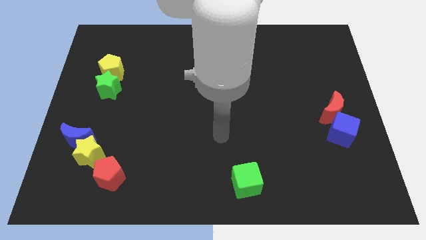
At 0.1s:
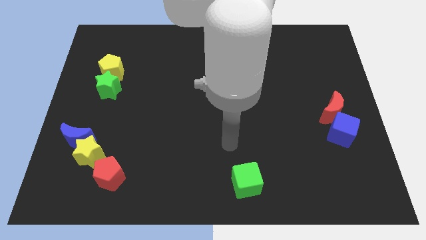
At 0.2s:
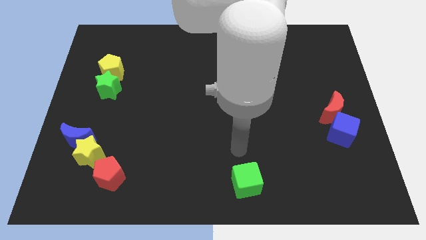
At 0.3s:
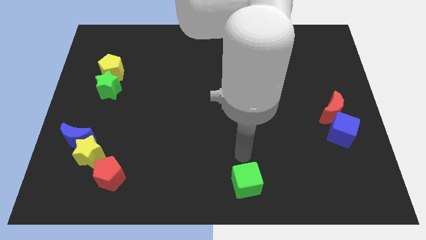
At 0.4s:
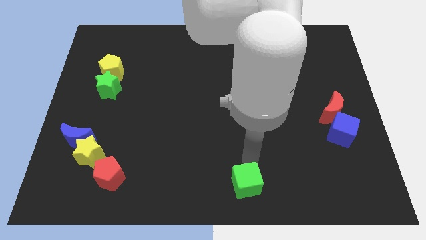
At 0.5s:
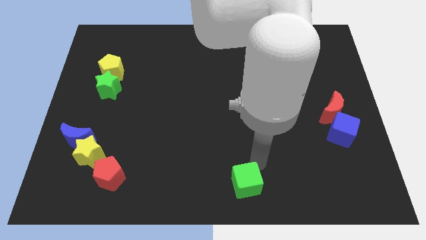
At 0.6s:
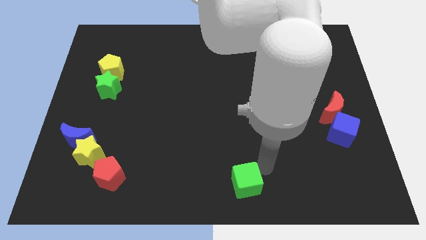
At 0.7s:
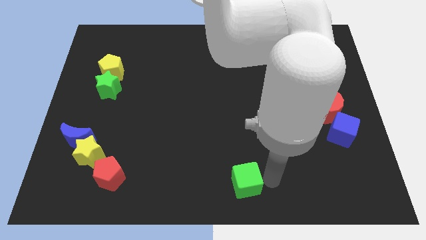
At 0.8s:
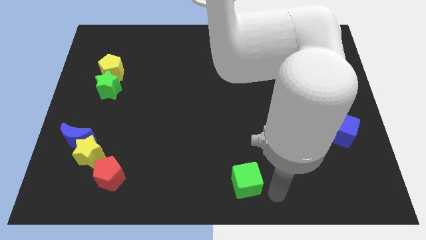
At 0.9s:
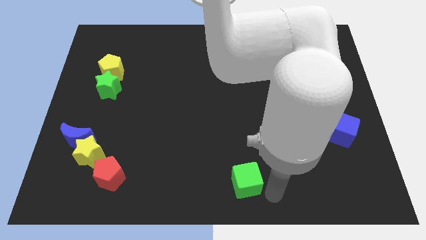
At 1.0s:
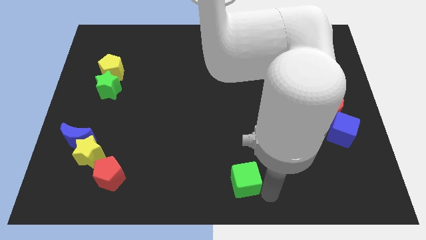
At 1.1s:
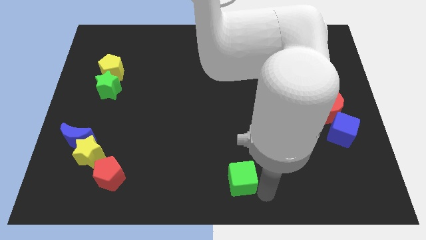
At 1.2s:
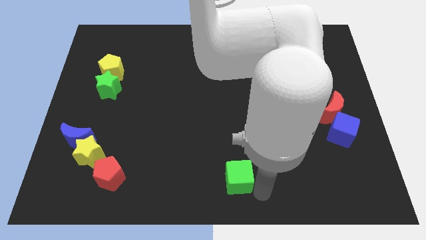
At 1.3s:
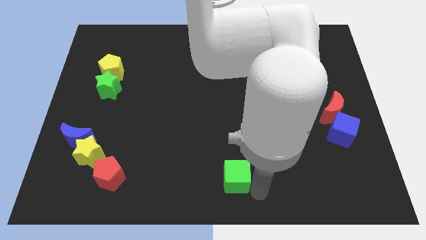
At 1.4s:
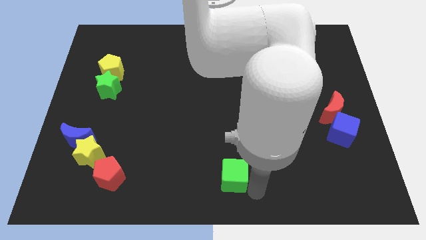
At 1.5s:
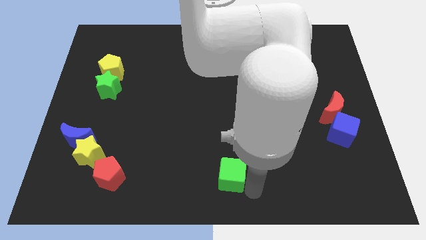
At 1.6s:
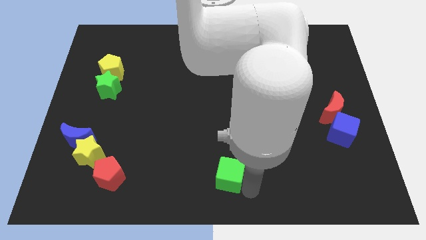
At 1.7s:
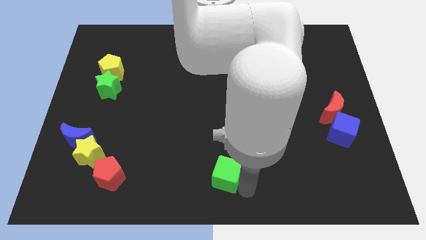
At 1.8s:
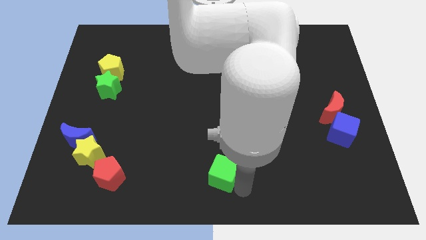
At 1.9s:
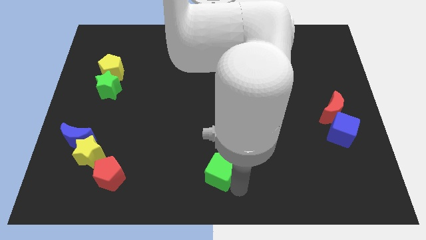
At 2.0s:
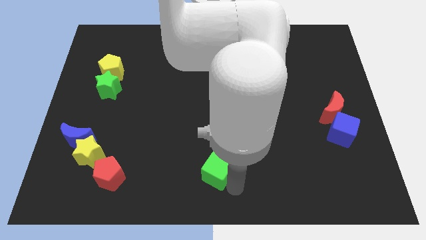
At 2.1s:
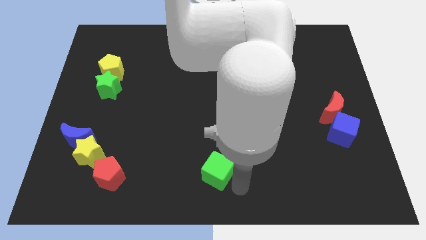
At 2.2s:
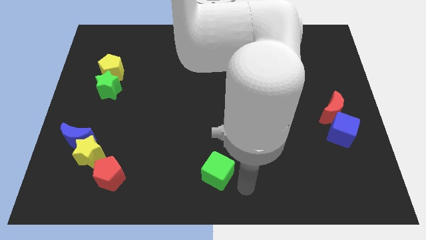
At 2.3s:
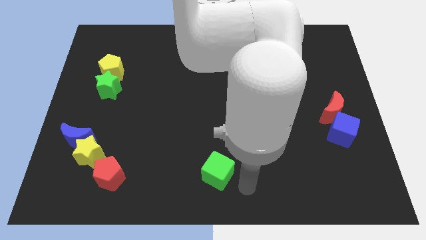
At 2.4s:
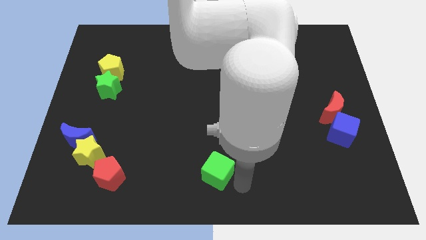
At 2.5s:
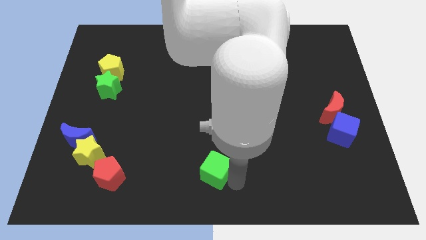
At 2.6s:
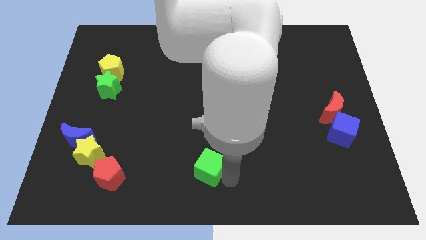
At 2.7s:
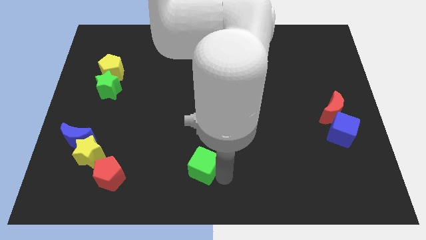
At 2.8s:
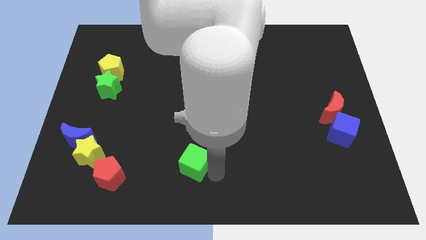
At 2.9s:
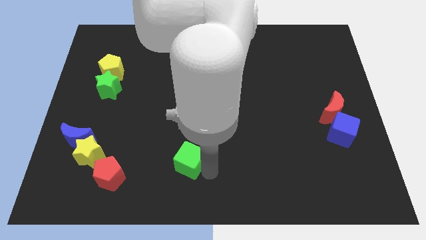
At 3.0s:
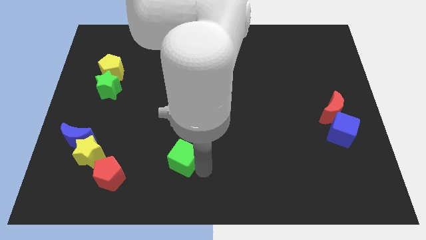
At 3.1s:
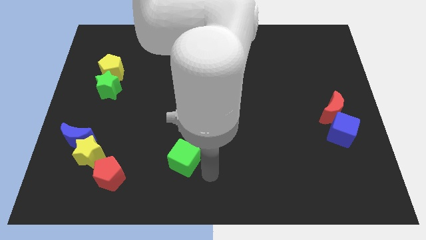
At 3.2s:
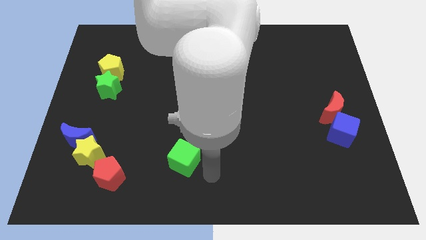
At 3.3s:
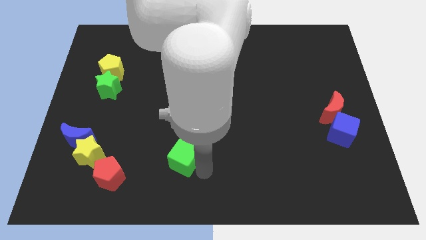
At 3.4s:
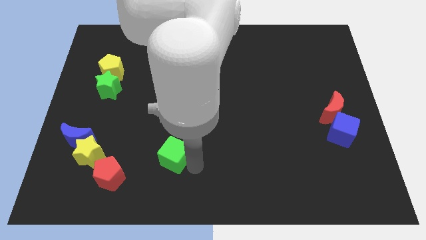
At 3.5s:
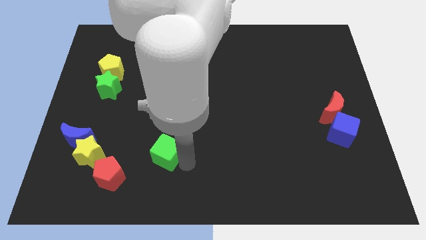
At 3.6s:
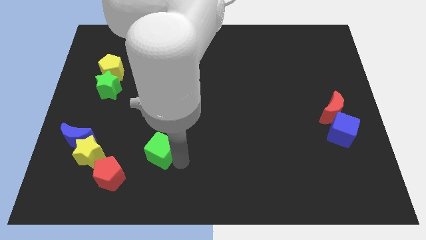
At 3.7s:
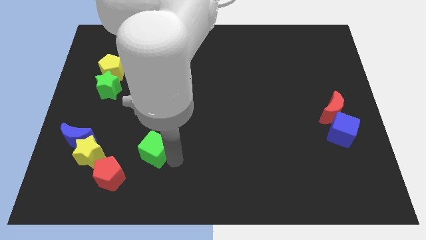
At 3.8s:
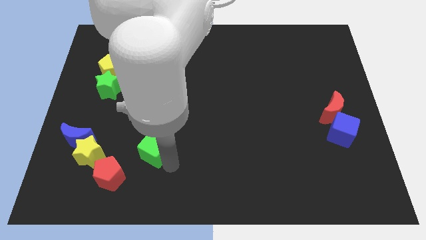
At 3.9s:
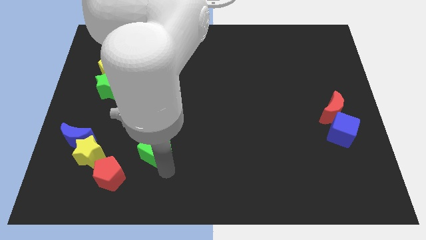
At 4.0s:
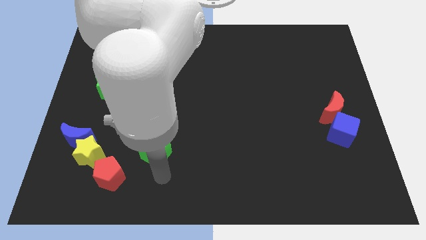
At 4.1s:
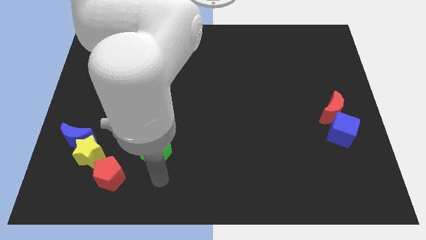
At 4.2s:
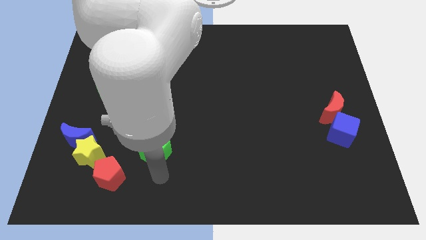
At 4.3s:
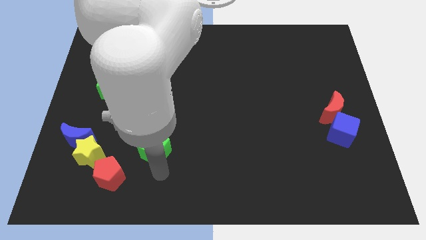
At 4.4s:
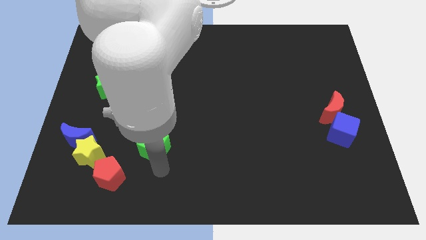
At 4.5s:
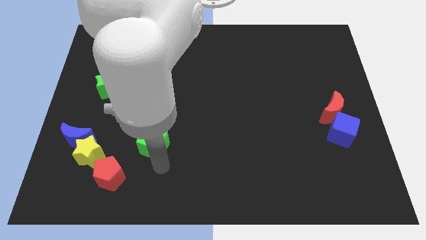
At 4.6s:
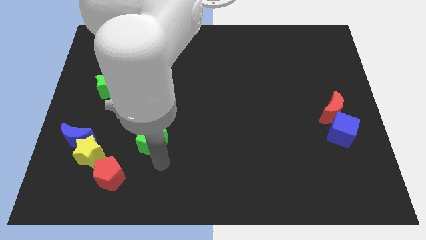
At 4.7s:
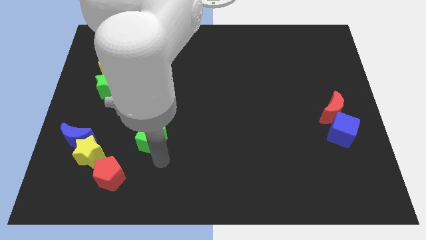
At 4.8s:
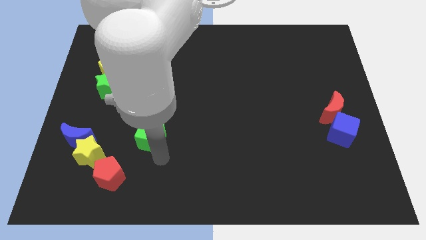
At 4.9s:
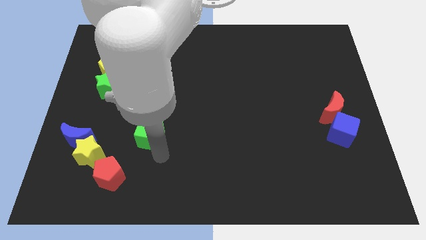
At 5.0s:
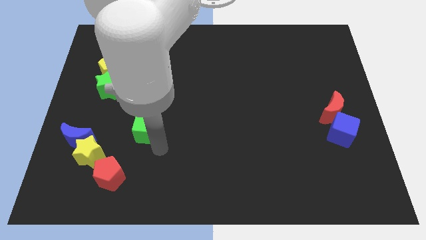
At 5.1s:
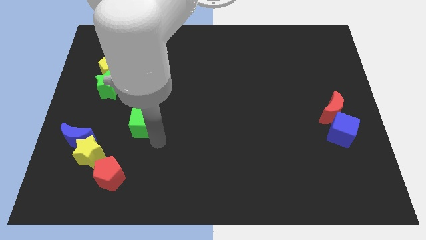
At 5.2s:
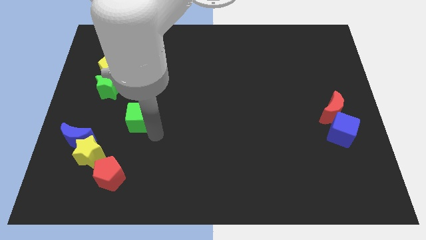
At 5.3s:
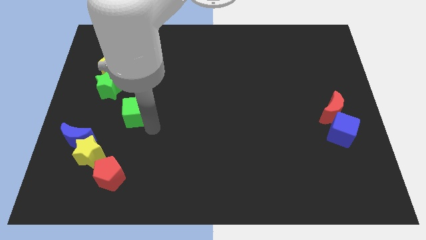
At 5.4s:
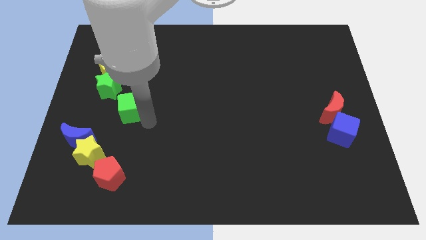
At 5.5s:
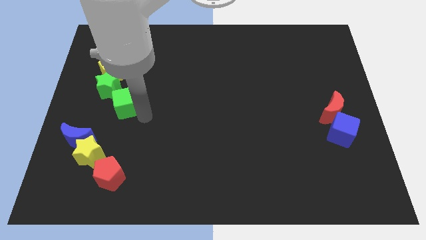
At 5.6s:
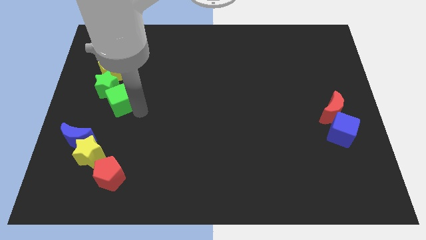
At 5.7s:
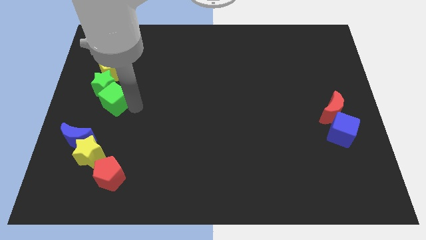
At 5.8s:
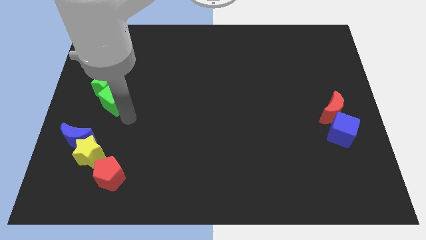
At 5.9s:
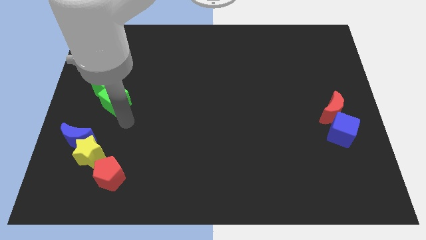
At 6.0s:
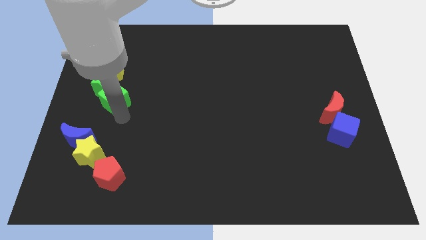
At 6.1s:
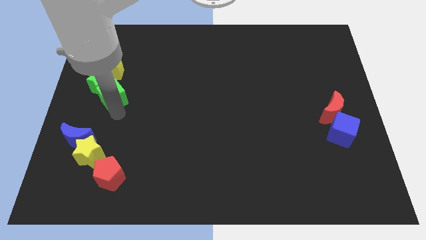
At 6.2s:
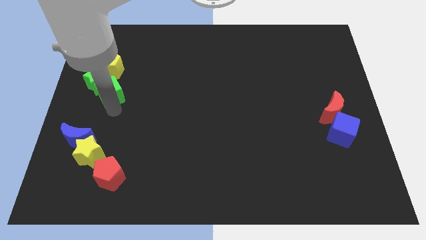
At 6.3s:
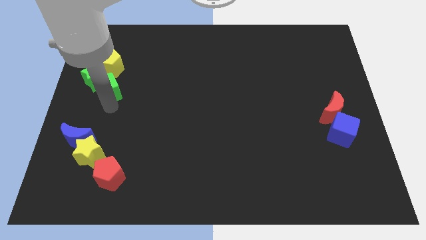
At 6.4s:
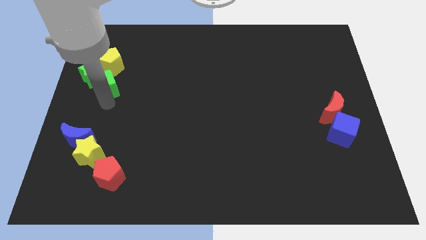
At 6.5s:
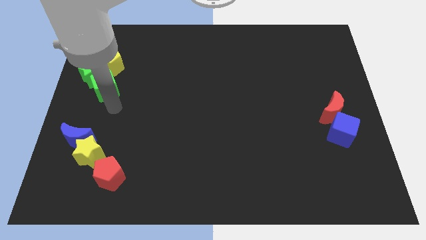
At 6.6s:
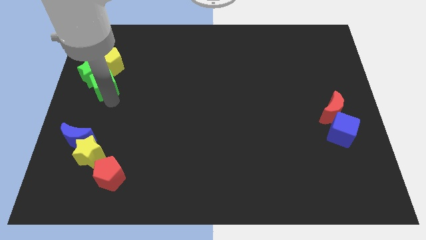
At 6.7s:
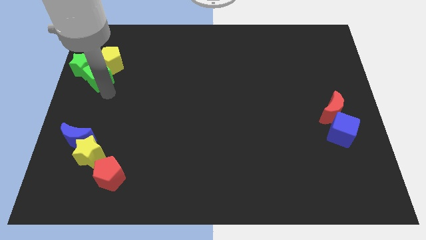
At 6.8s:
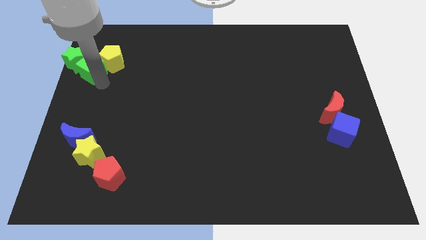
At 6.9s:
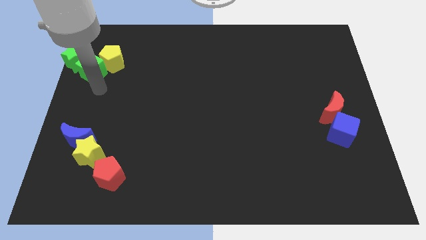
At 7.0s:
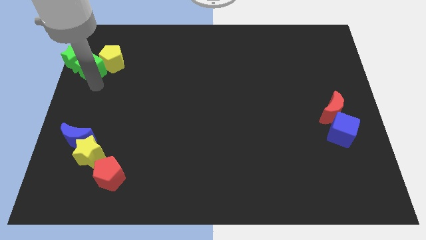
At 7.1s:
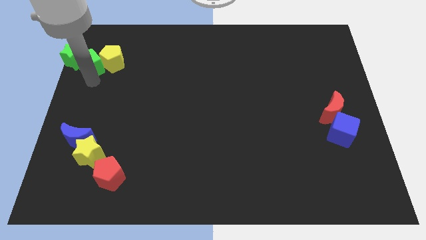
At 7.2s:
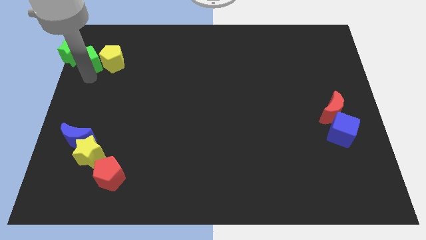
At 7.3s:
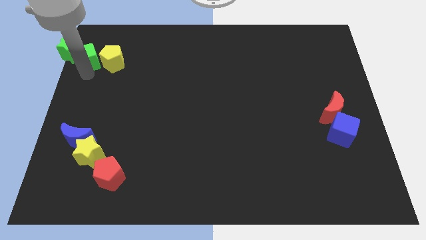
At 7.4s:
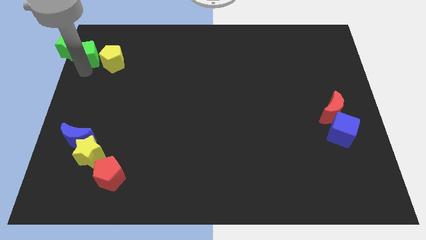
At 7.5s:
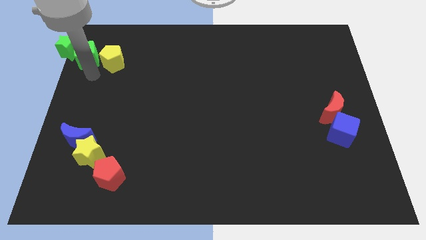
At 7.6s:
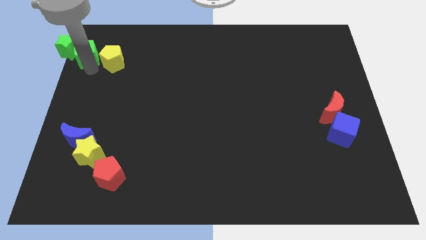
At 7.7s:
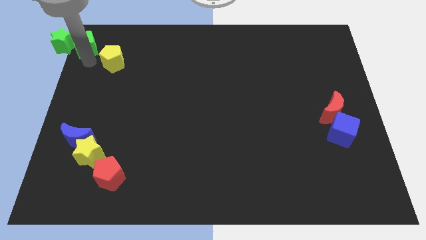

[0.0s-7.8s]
push the green cube to the top left of the board
